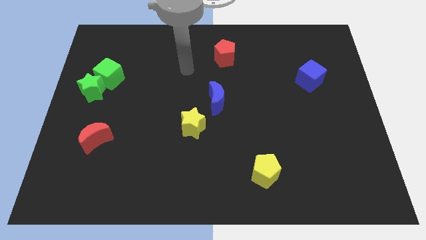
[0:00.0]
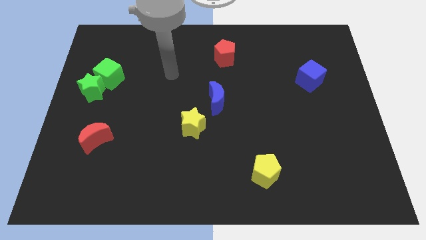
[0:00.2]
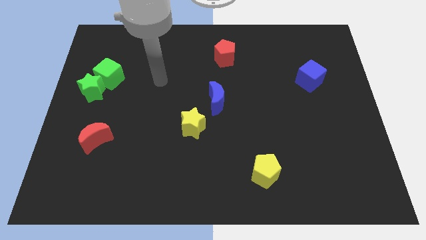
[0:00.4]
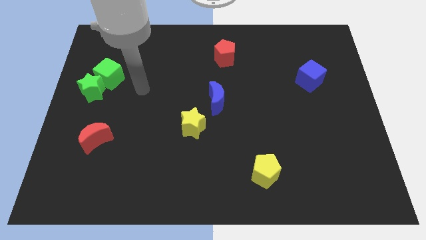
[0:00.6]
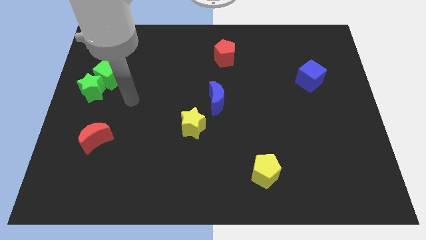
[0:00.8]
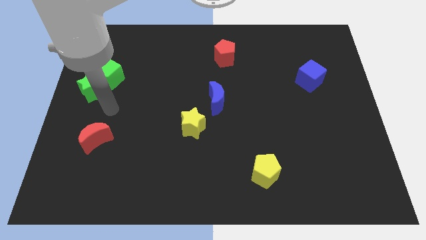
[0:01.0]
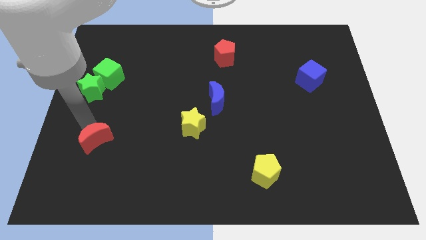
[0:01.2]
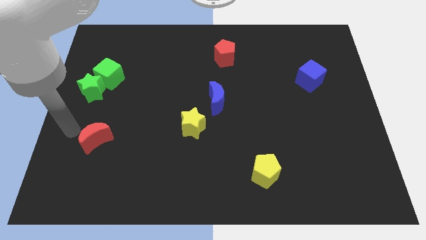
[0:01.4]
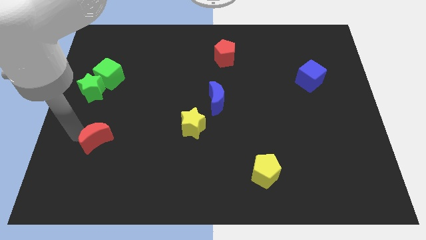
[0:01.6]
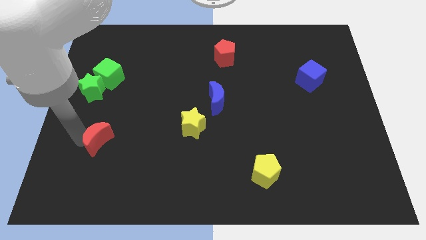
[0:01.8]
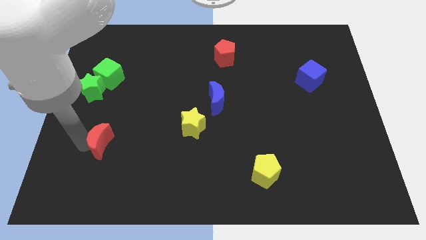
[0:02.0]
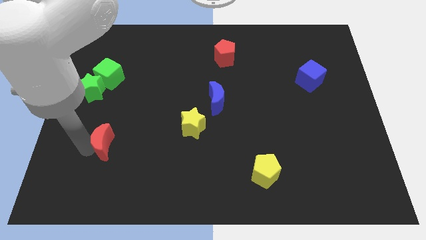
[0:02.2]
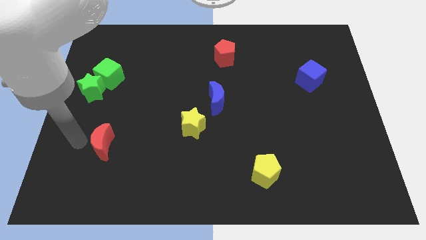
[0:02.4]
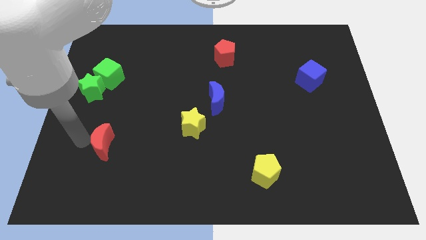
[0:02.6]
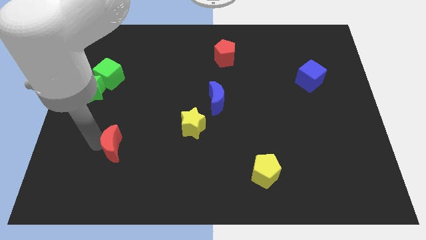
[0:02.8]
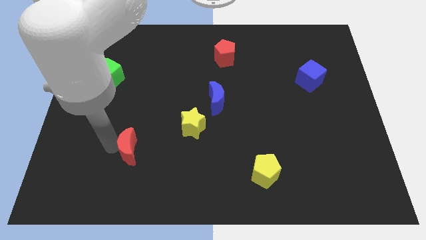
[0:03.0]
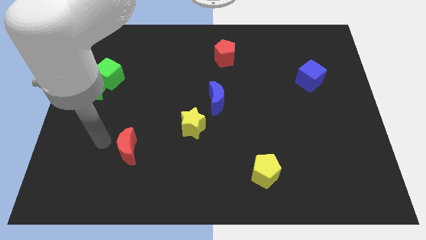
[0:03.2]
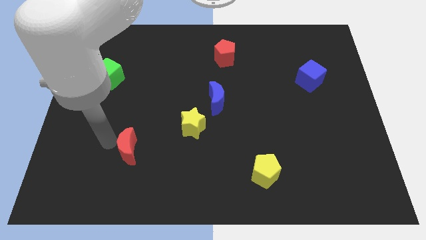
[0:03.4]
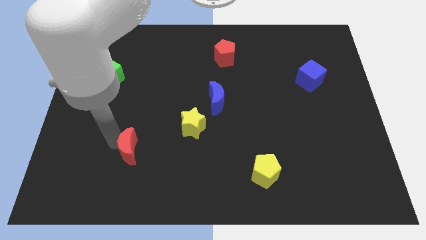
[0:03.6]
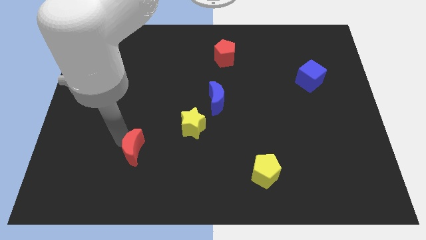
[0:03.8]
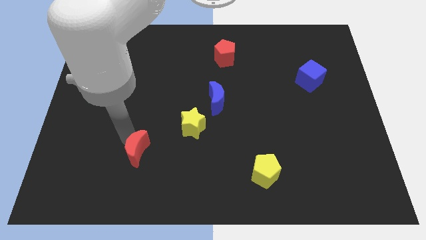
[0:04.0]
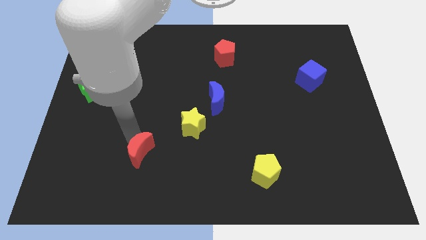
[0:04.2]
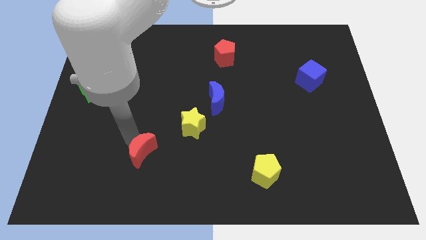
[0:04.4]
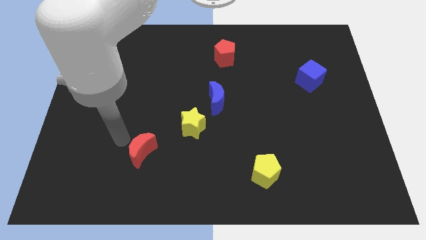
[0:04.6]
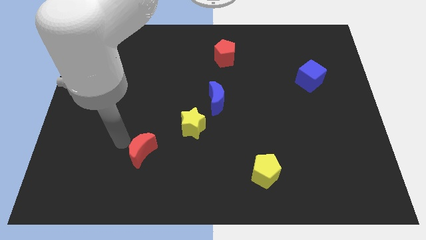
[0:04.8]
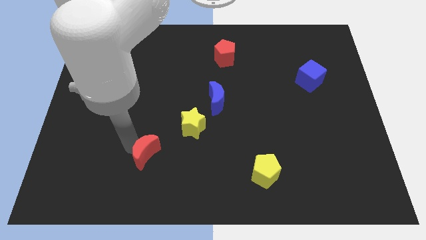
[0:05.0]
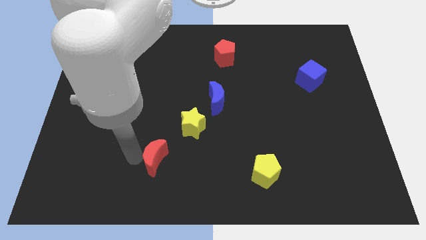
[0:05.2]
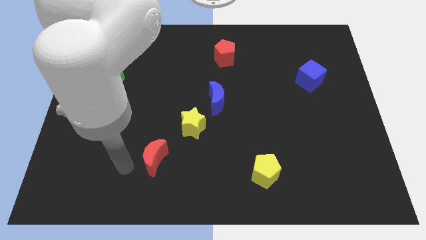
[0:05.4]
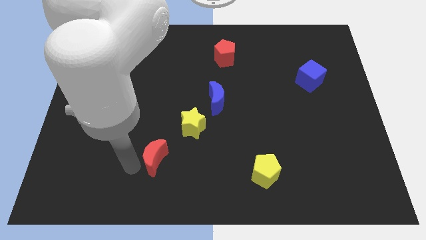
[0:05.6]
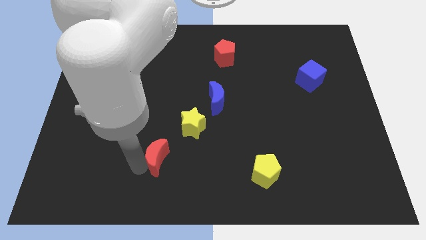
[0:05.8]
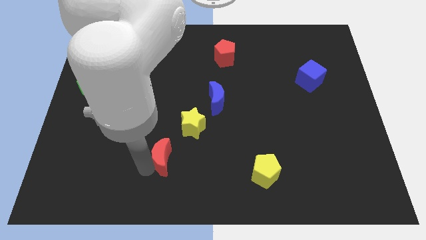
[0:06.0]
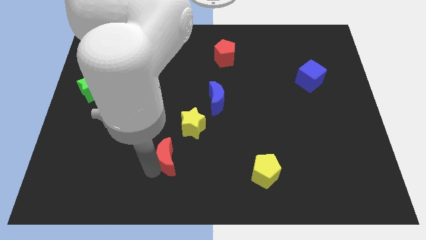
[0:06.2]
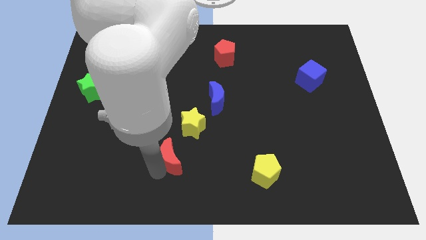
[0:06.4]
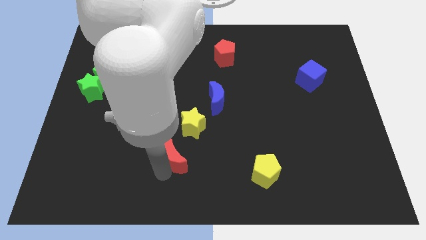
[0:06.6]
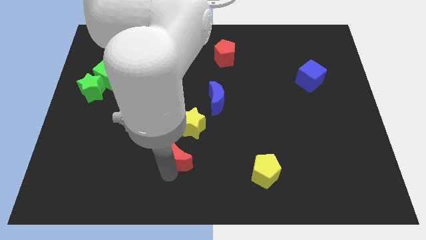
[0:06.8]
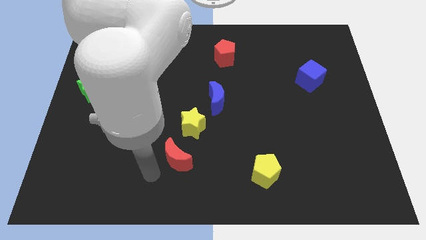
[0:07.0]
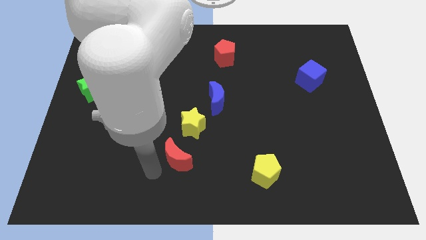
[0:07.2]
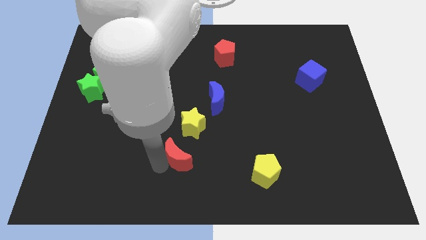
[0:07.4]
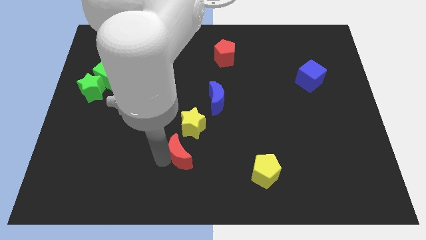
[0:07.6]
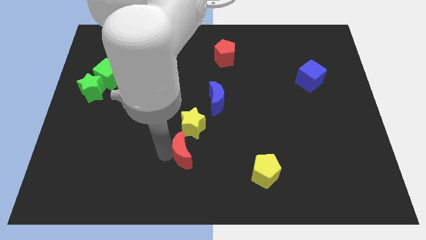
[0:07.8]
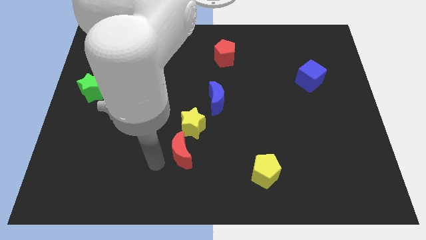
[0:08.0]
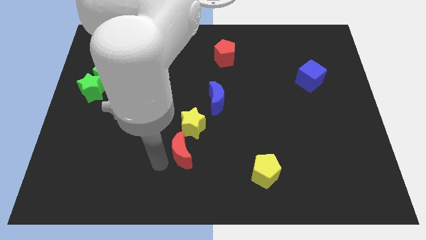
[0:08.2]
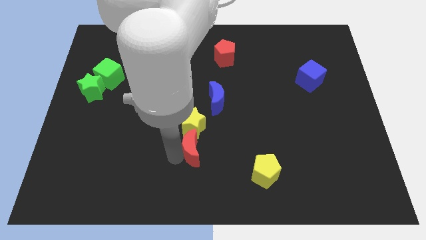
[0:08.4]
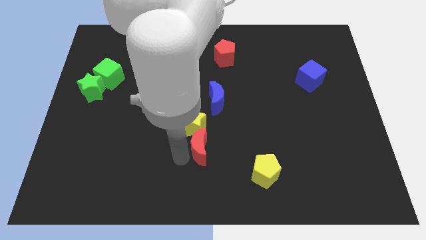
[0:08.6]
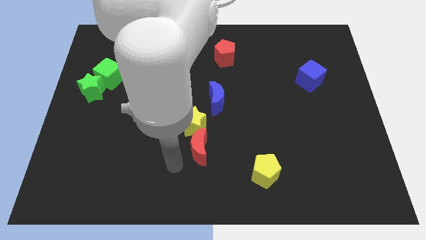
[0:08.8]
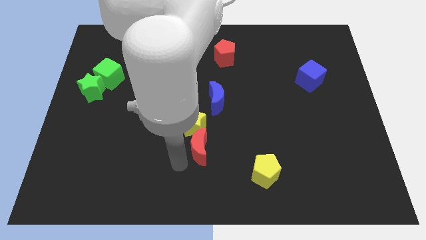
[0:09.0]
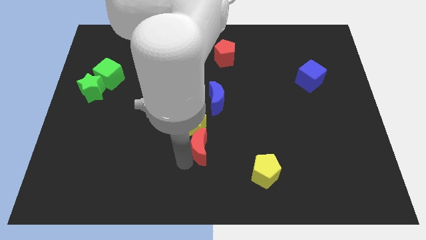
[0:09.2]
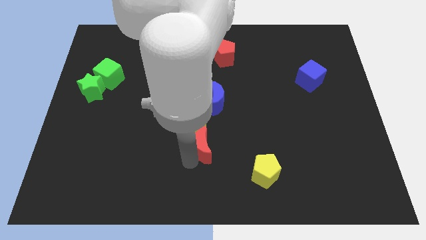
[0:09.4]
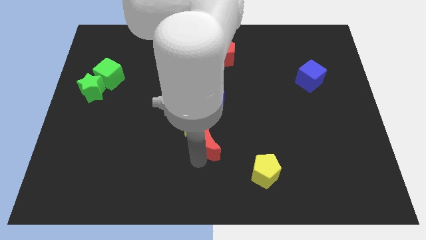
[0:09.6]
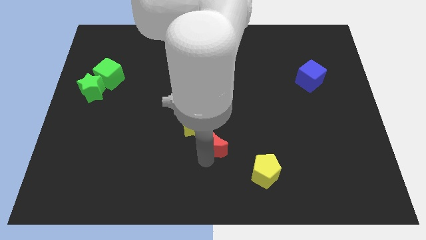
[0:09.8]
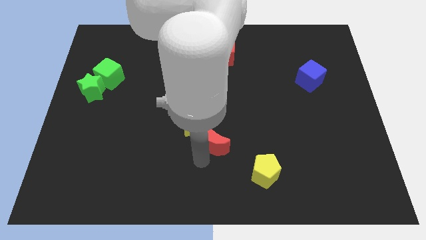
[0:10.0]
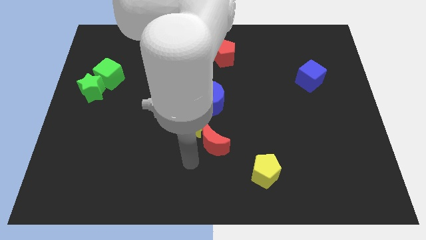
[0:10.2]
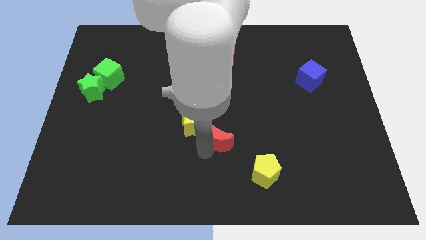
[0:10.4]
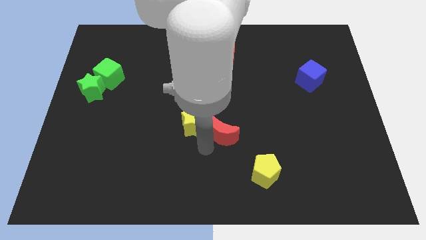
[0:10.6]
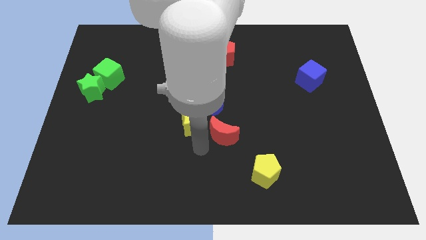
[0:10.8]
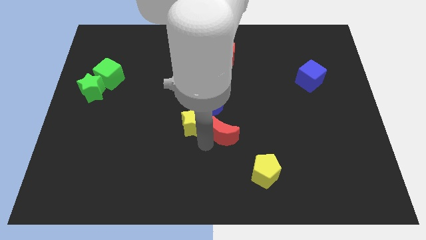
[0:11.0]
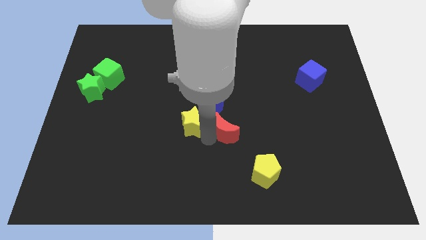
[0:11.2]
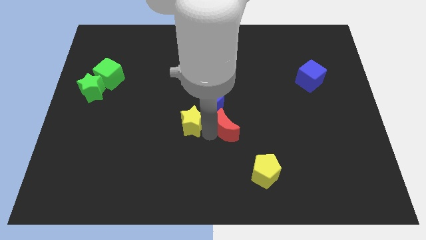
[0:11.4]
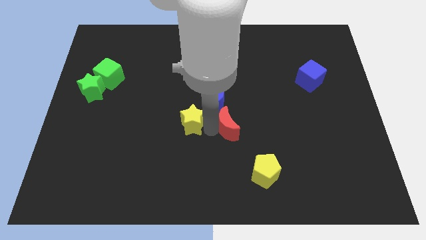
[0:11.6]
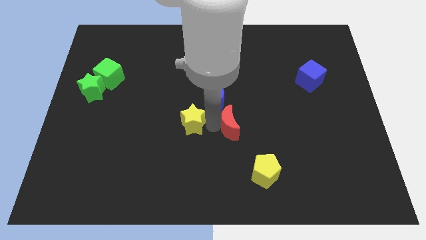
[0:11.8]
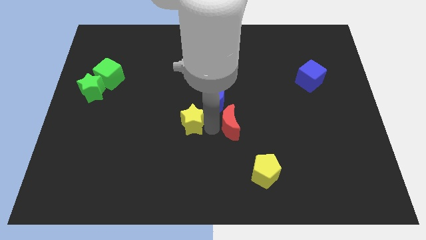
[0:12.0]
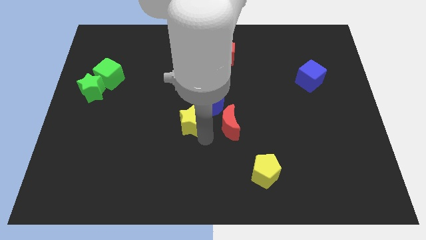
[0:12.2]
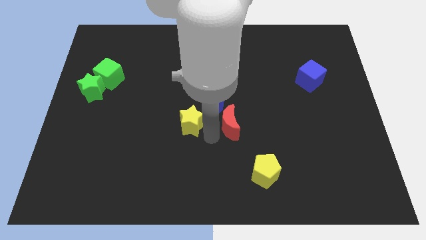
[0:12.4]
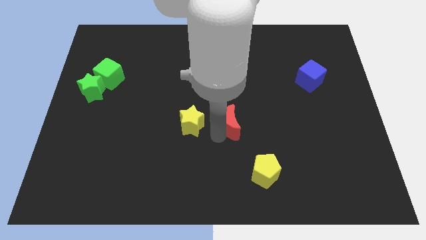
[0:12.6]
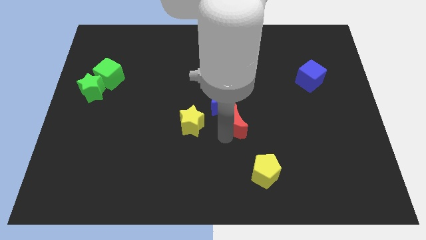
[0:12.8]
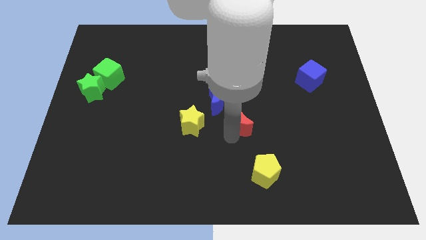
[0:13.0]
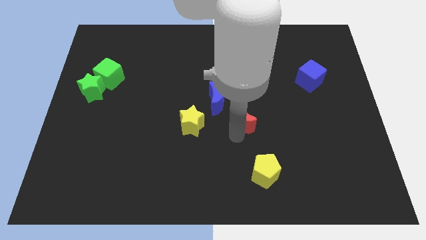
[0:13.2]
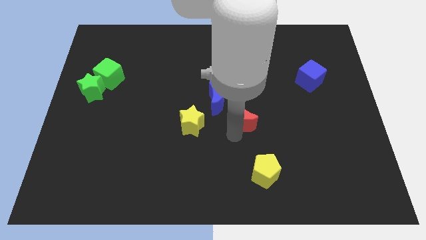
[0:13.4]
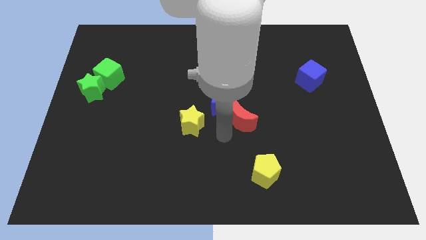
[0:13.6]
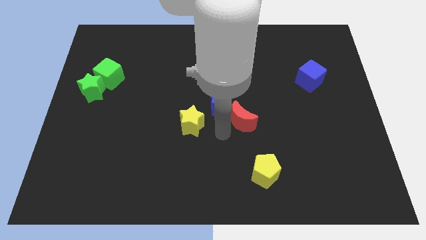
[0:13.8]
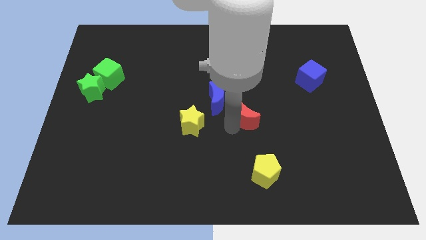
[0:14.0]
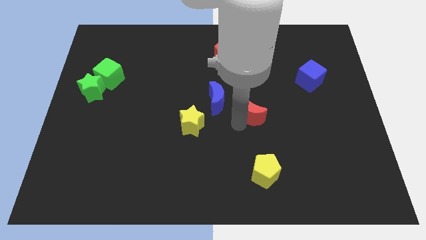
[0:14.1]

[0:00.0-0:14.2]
slide the red moon to the right of the blue moon
